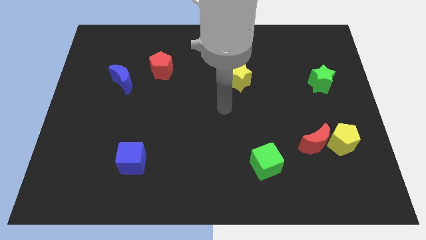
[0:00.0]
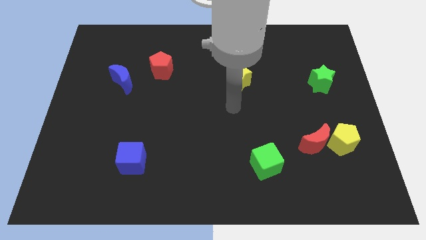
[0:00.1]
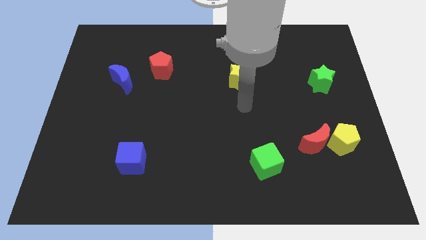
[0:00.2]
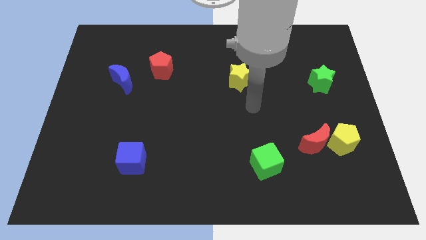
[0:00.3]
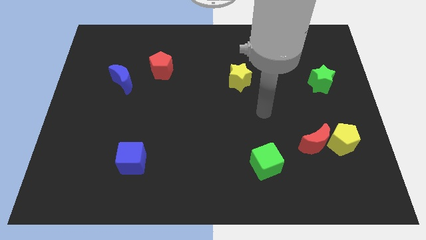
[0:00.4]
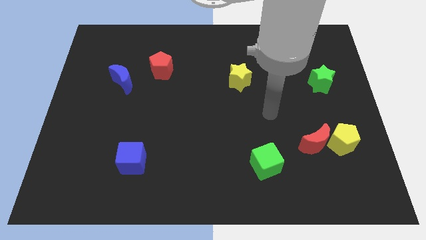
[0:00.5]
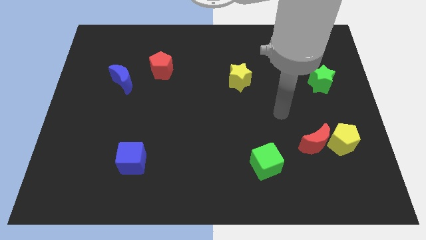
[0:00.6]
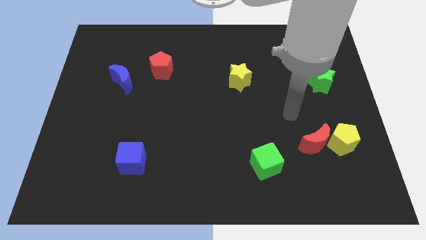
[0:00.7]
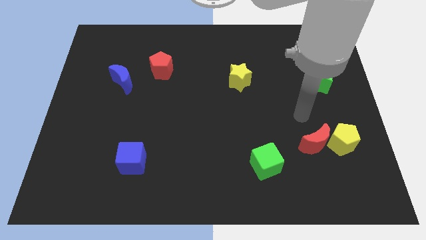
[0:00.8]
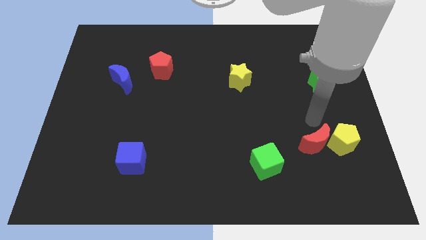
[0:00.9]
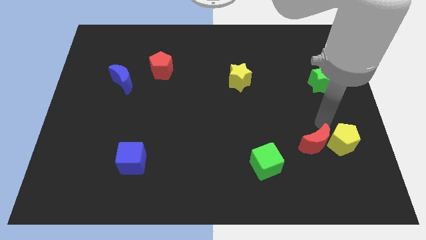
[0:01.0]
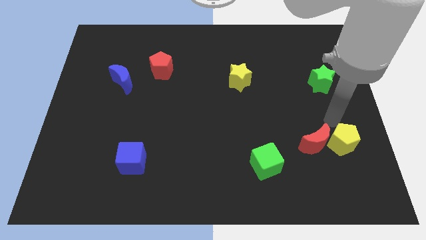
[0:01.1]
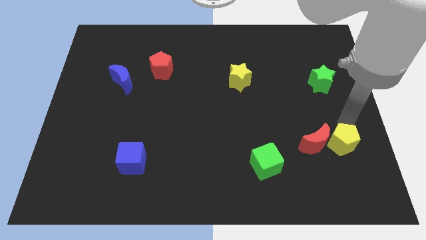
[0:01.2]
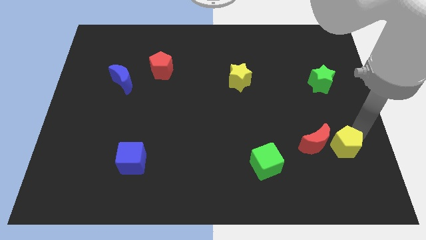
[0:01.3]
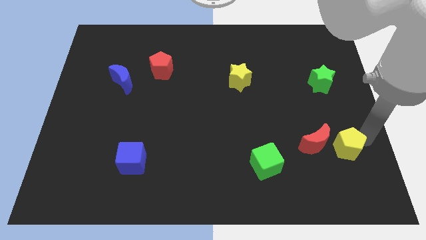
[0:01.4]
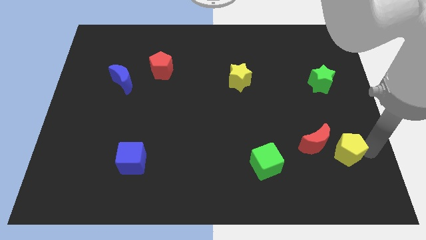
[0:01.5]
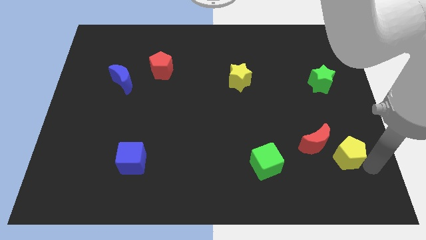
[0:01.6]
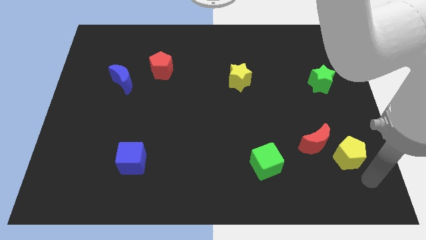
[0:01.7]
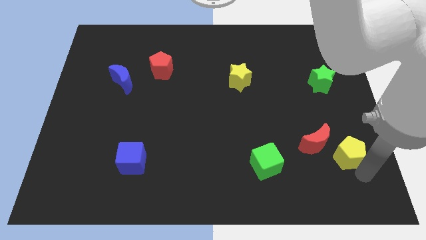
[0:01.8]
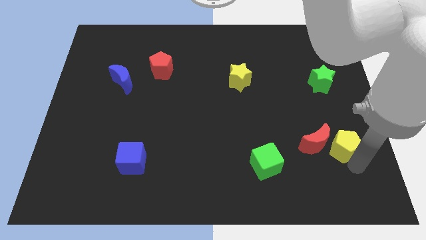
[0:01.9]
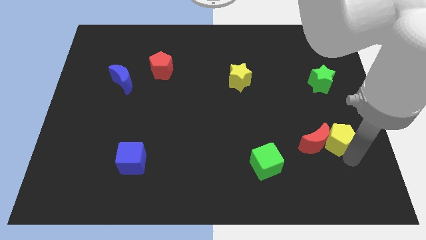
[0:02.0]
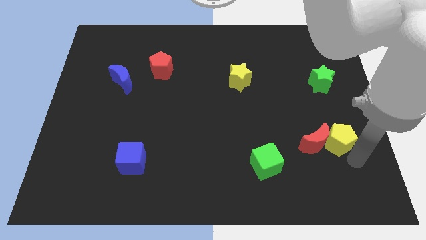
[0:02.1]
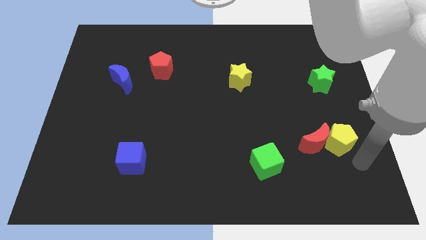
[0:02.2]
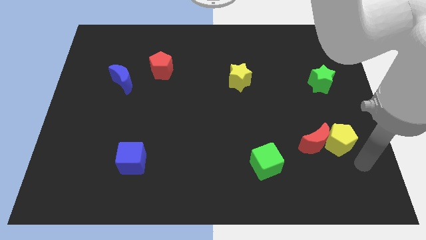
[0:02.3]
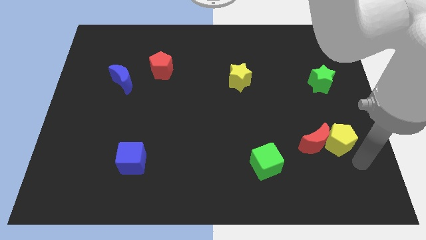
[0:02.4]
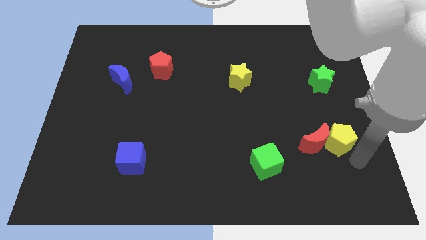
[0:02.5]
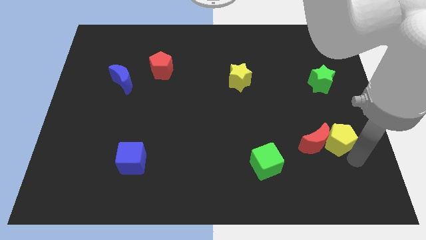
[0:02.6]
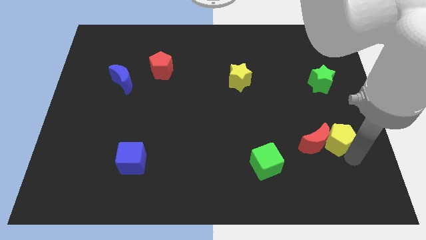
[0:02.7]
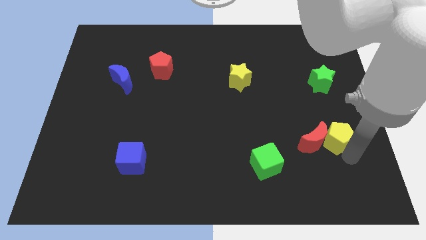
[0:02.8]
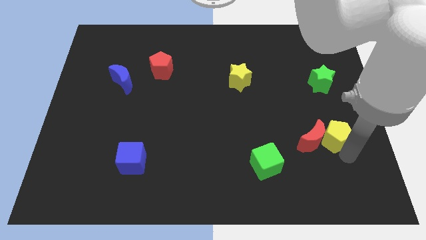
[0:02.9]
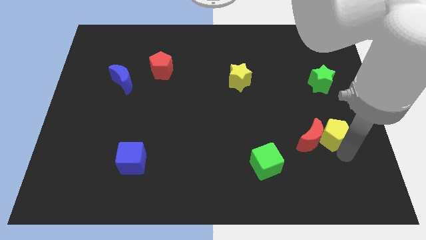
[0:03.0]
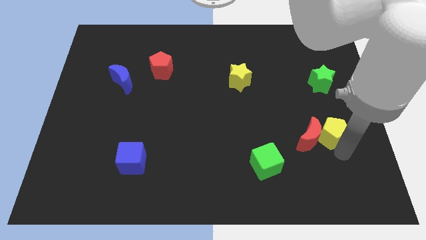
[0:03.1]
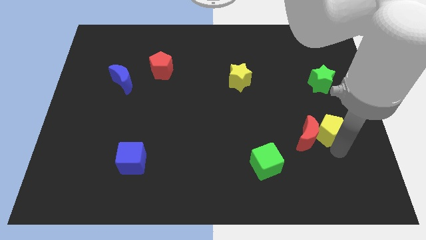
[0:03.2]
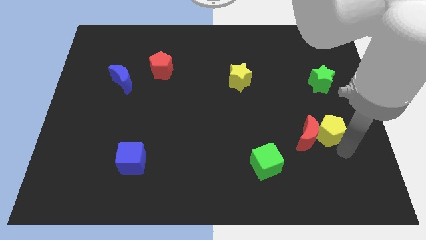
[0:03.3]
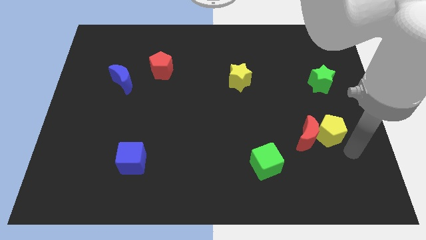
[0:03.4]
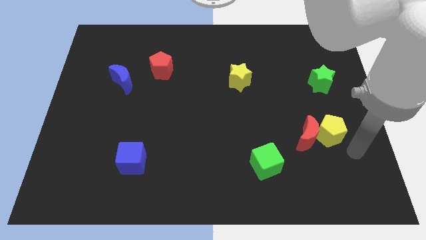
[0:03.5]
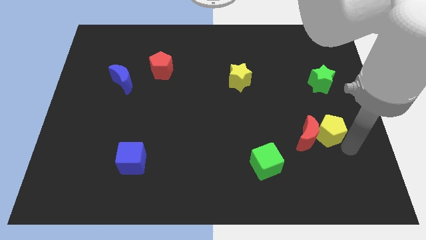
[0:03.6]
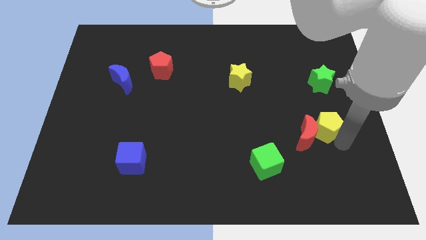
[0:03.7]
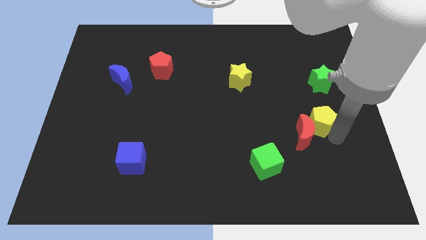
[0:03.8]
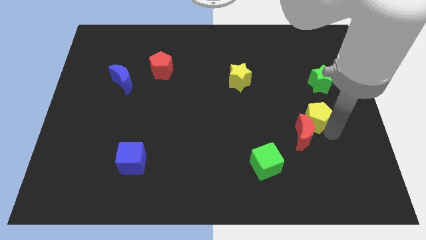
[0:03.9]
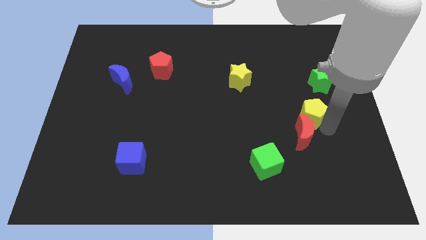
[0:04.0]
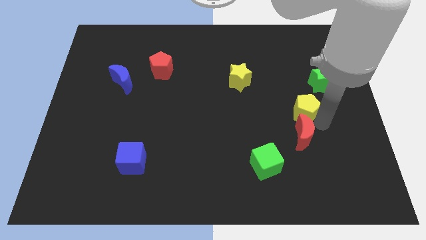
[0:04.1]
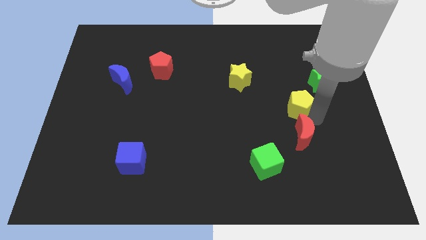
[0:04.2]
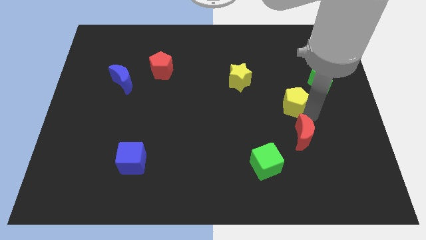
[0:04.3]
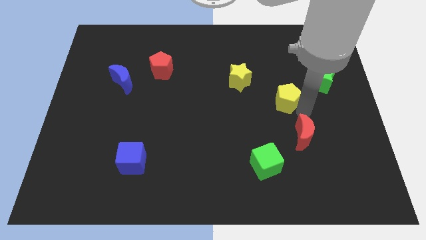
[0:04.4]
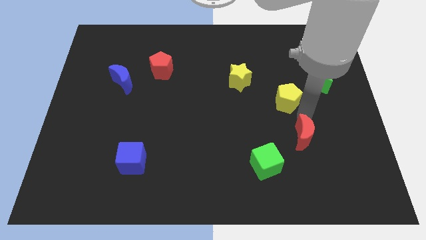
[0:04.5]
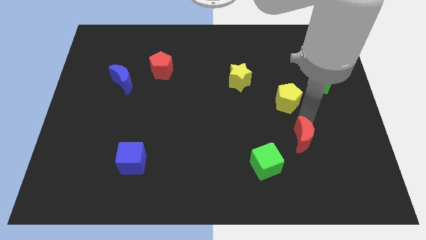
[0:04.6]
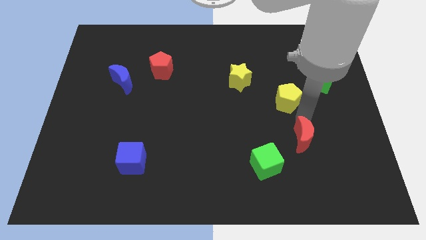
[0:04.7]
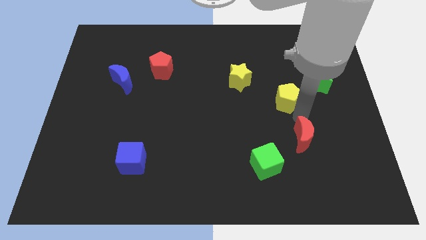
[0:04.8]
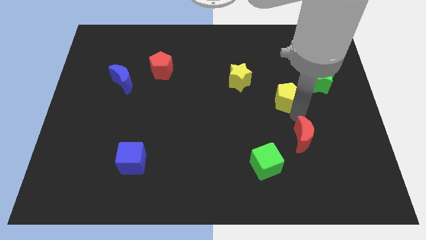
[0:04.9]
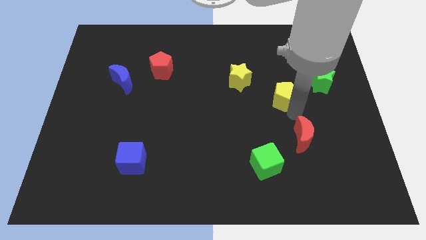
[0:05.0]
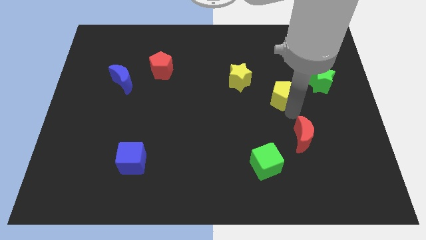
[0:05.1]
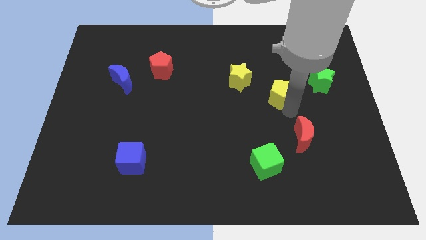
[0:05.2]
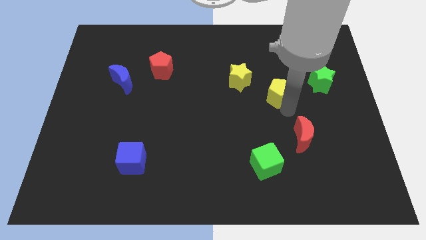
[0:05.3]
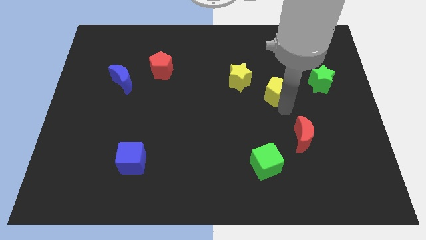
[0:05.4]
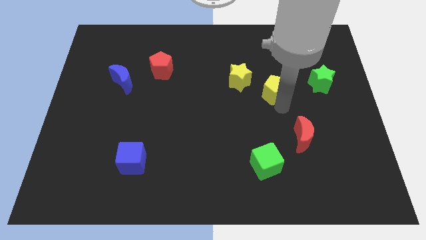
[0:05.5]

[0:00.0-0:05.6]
slide the yellow pentagon upwards and left
